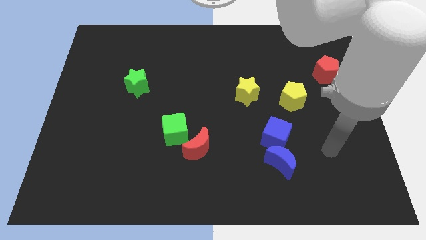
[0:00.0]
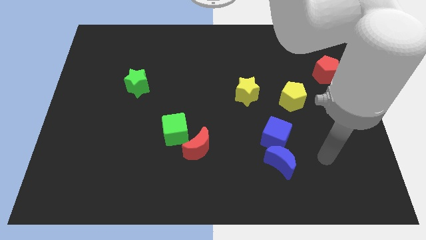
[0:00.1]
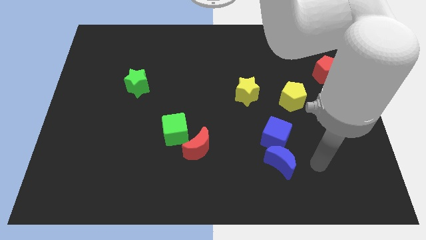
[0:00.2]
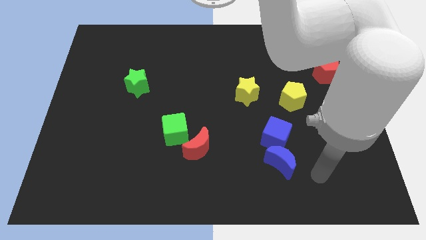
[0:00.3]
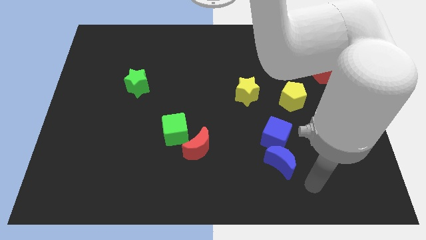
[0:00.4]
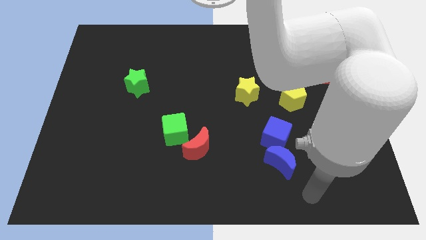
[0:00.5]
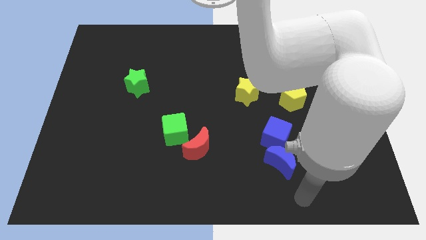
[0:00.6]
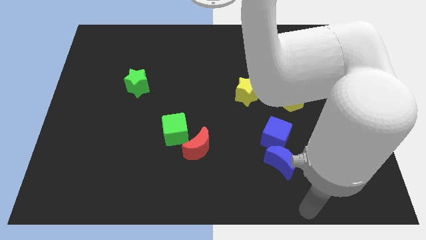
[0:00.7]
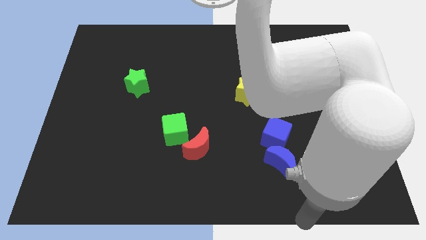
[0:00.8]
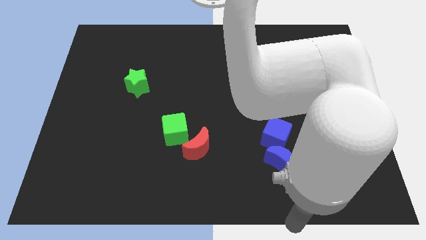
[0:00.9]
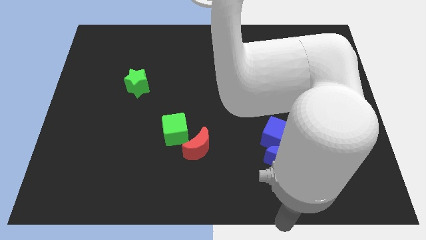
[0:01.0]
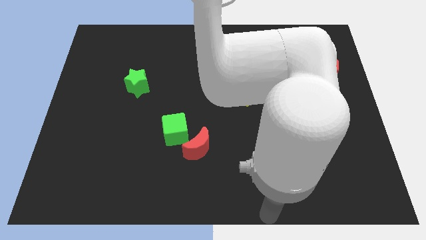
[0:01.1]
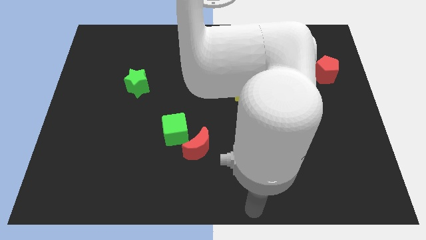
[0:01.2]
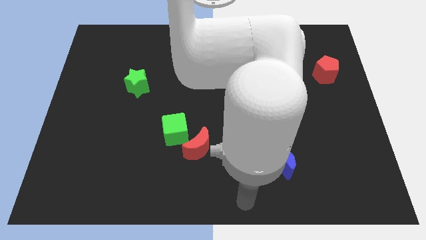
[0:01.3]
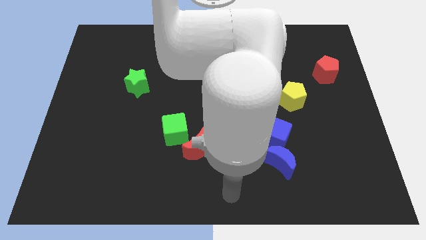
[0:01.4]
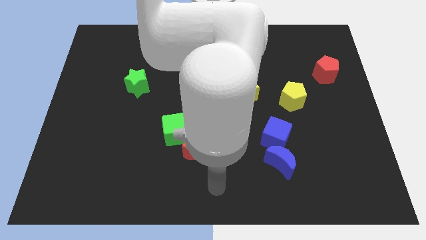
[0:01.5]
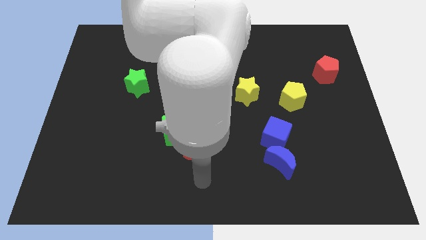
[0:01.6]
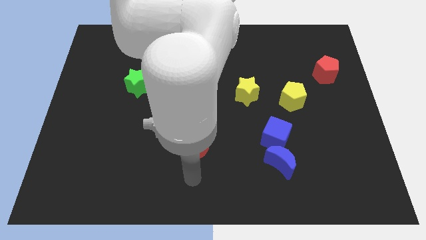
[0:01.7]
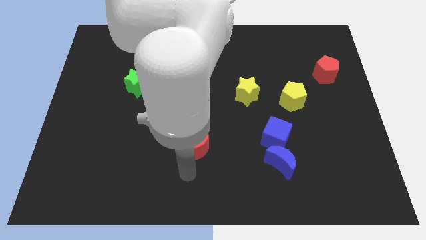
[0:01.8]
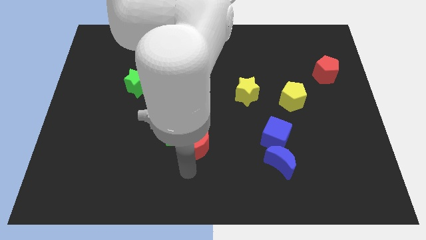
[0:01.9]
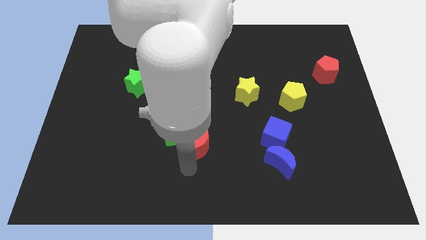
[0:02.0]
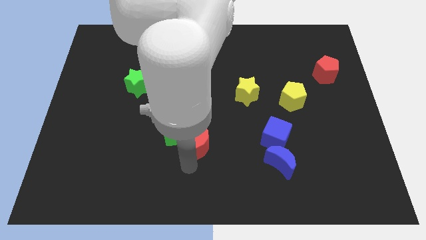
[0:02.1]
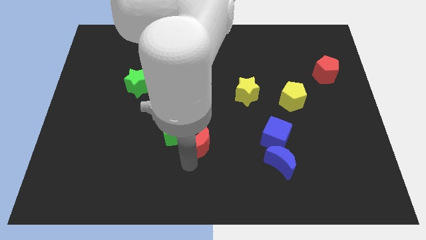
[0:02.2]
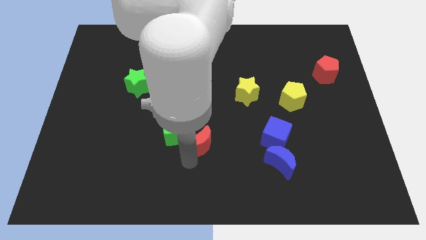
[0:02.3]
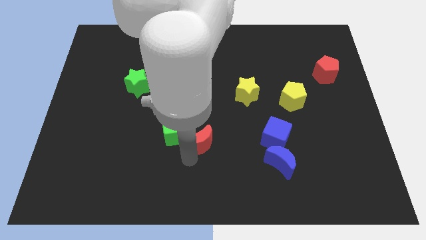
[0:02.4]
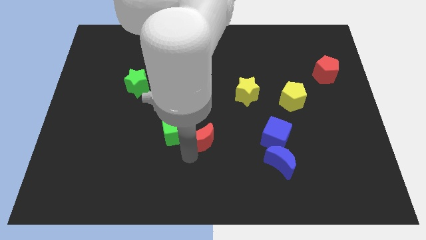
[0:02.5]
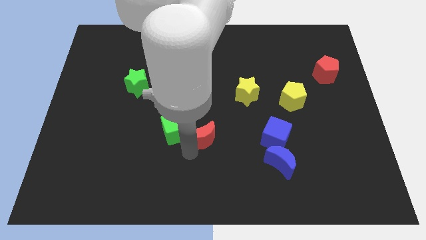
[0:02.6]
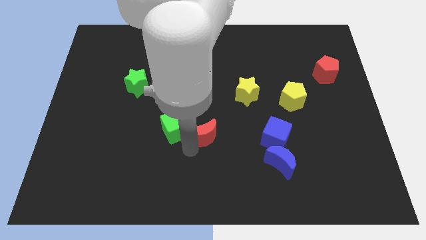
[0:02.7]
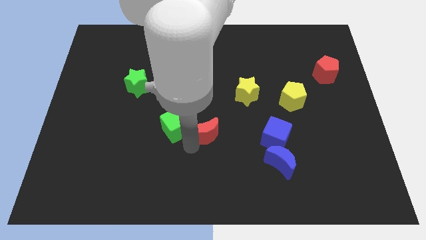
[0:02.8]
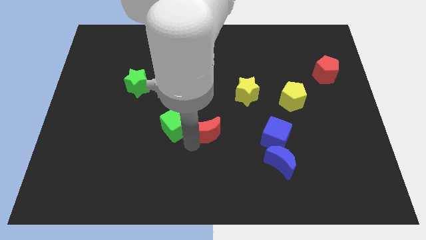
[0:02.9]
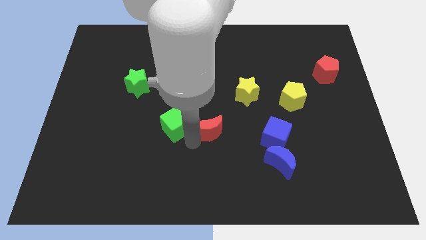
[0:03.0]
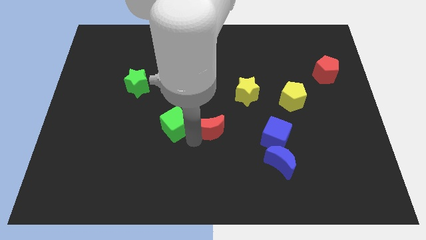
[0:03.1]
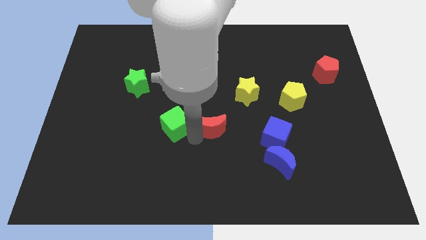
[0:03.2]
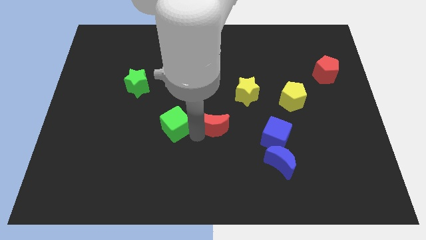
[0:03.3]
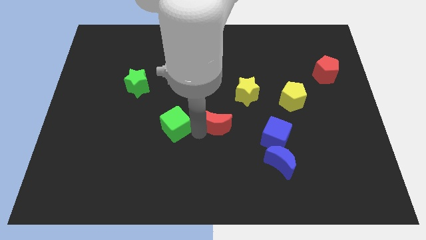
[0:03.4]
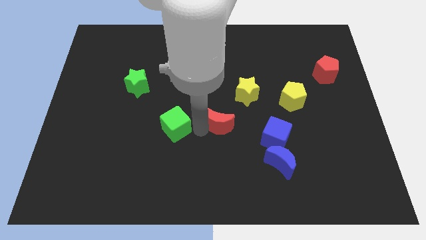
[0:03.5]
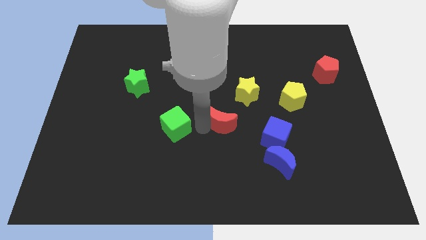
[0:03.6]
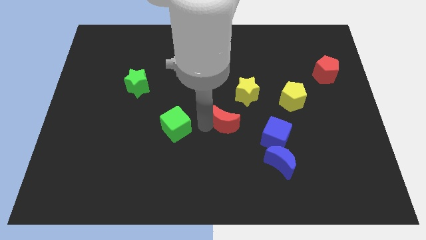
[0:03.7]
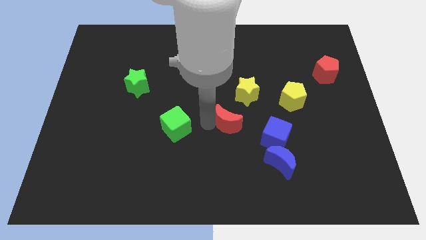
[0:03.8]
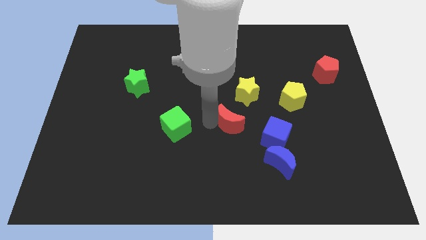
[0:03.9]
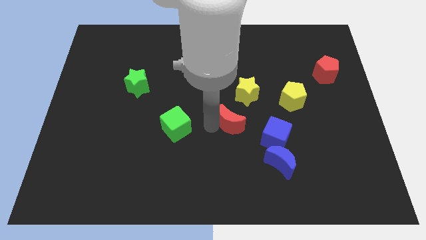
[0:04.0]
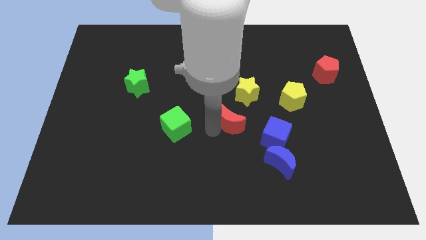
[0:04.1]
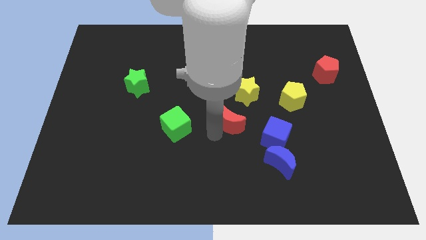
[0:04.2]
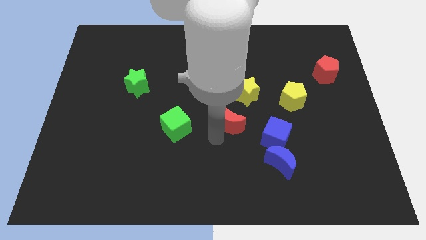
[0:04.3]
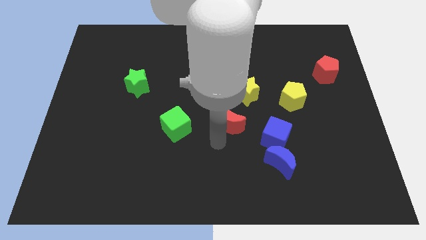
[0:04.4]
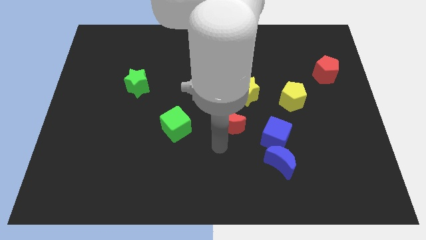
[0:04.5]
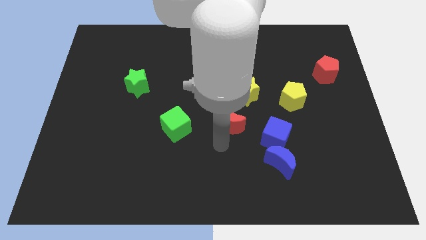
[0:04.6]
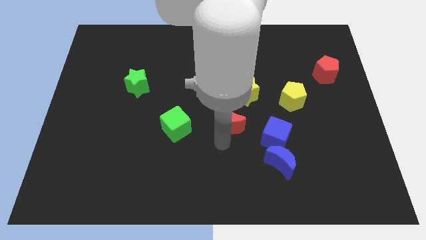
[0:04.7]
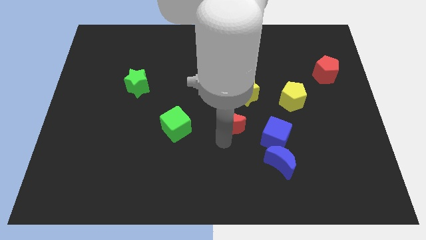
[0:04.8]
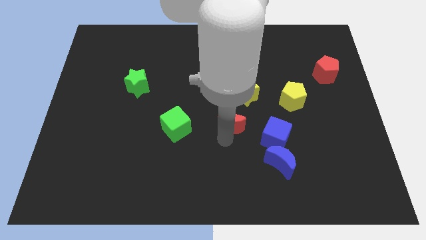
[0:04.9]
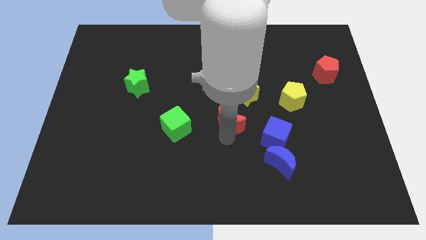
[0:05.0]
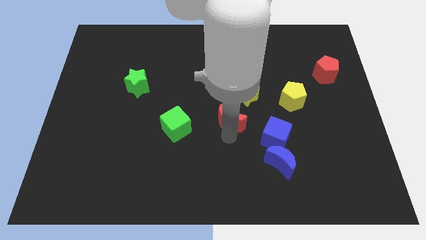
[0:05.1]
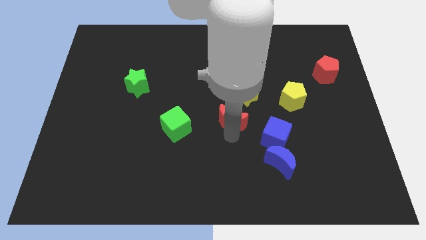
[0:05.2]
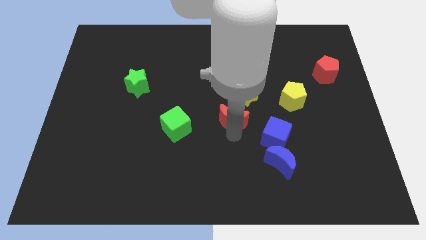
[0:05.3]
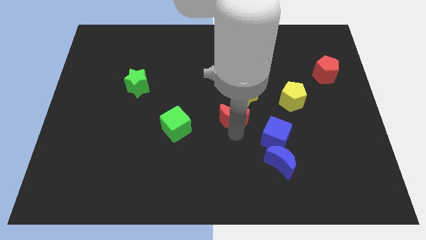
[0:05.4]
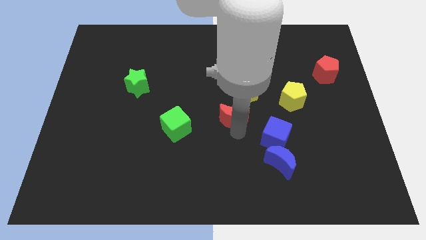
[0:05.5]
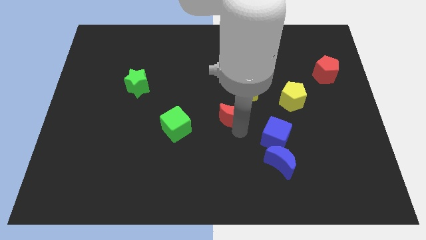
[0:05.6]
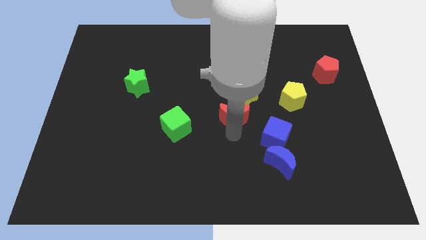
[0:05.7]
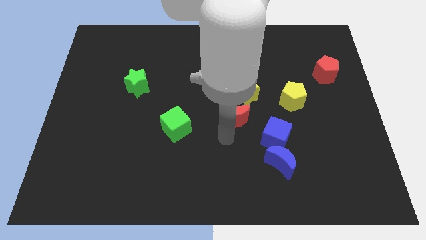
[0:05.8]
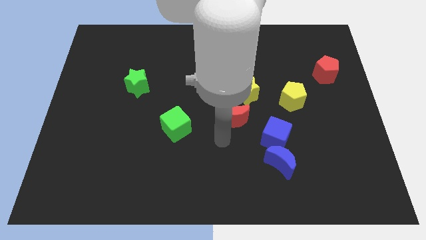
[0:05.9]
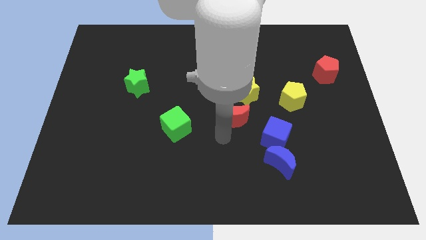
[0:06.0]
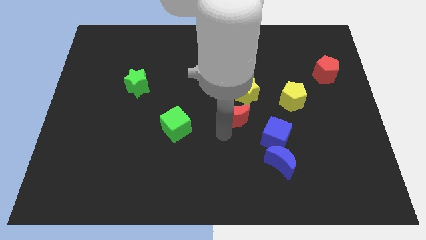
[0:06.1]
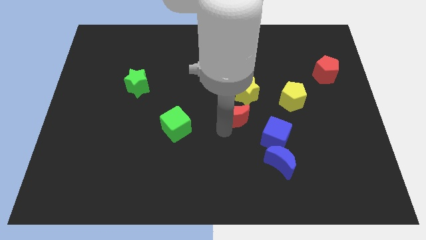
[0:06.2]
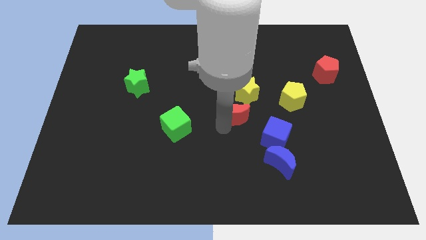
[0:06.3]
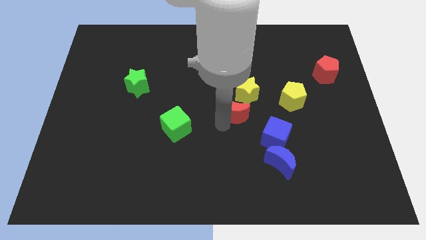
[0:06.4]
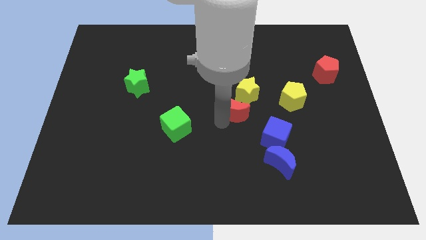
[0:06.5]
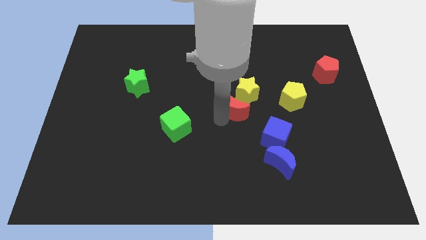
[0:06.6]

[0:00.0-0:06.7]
slide the red moon towards the yellow star

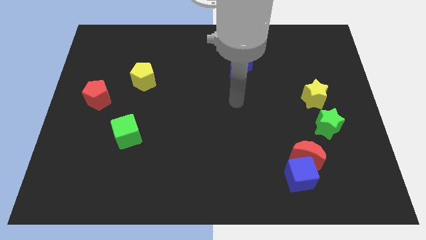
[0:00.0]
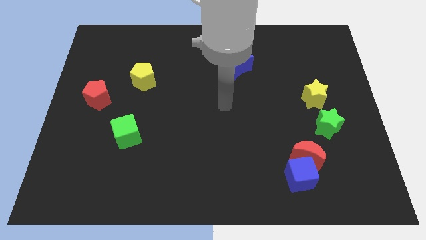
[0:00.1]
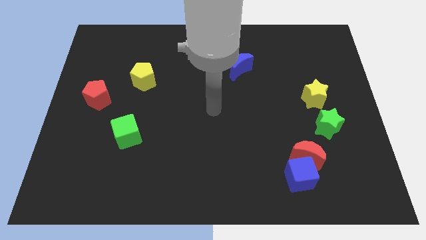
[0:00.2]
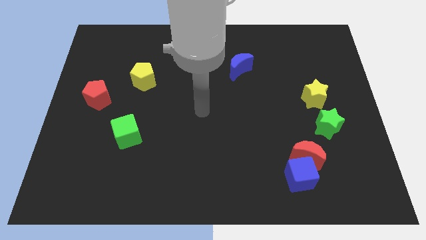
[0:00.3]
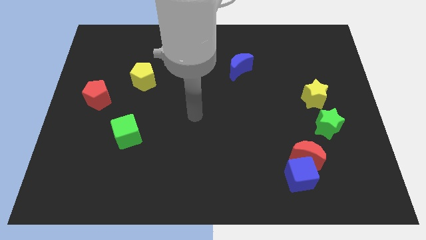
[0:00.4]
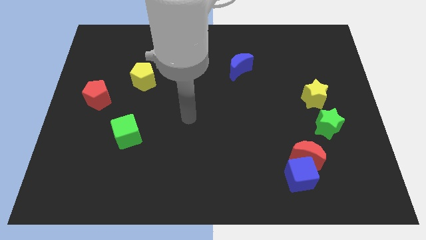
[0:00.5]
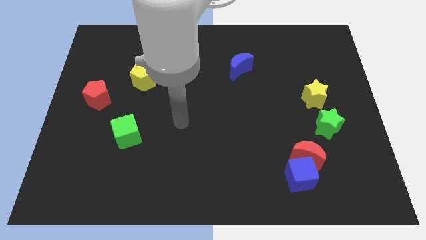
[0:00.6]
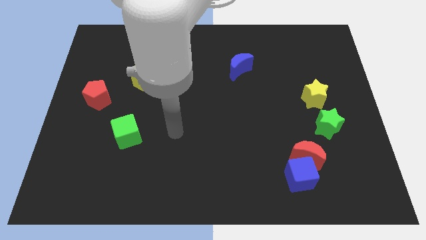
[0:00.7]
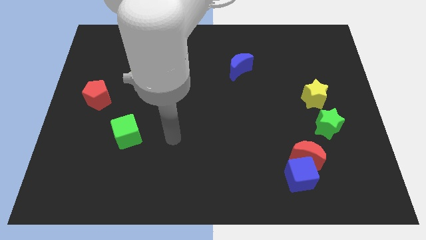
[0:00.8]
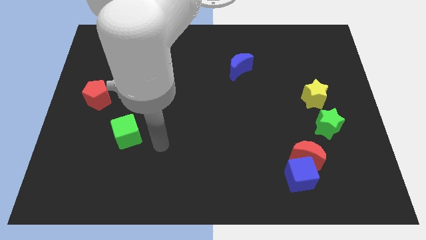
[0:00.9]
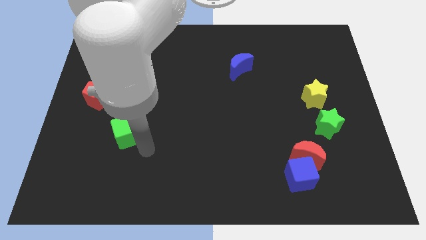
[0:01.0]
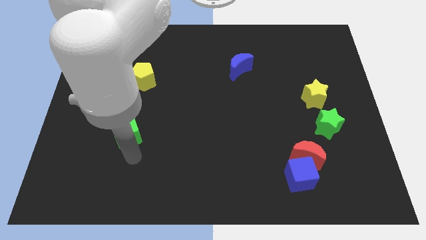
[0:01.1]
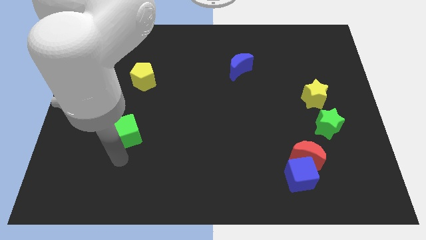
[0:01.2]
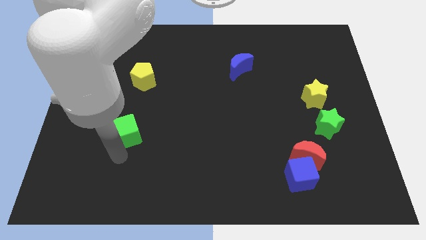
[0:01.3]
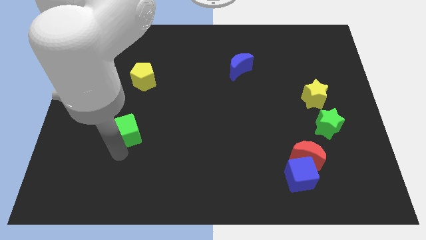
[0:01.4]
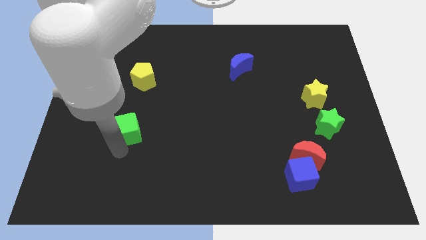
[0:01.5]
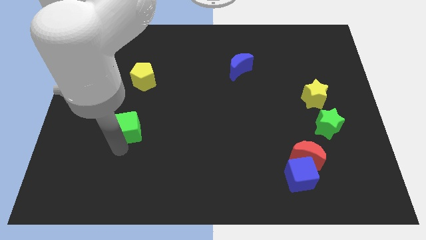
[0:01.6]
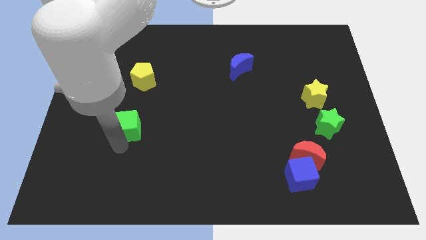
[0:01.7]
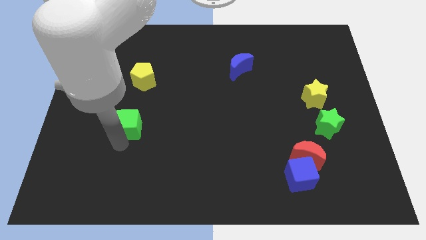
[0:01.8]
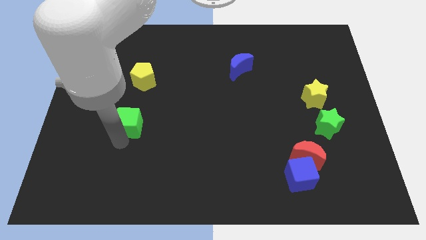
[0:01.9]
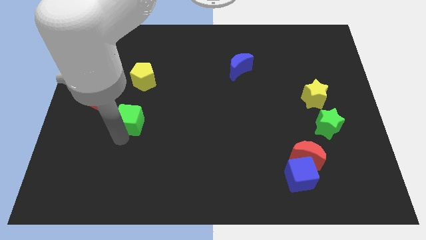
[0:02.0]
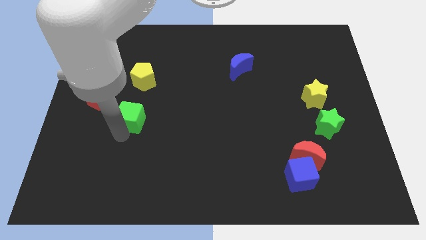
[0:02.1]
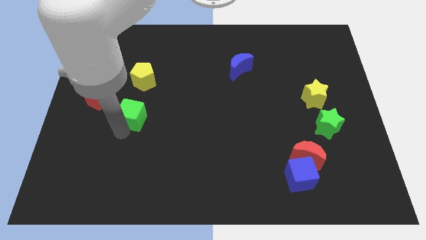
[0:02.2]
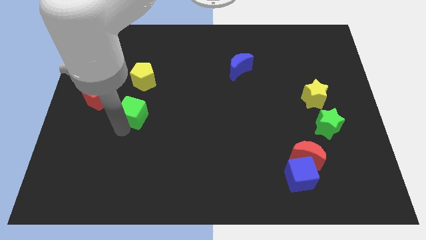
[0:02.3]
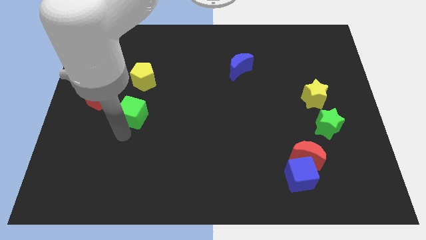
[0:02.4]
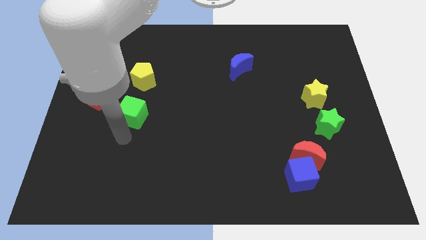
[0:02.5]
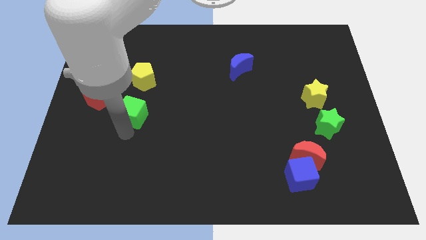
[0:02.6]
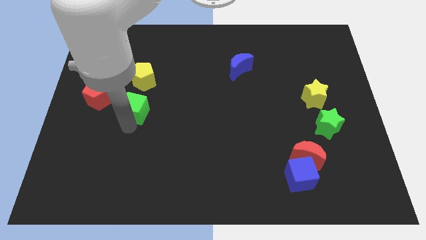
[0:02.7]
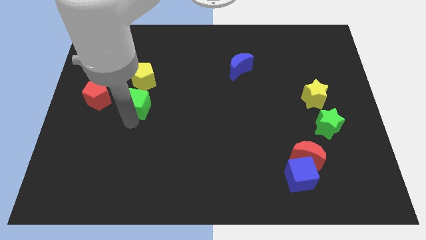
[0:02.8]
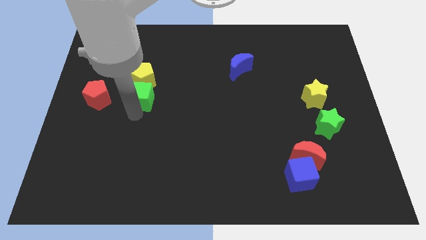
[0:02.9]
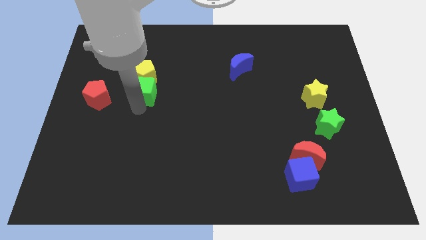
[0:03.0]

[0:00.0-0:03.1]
push the green cube next to the yellow pentagon
